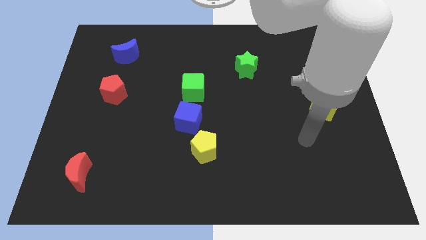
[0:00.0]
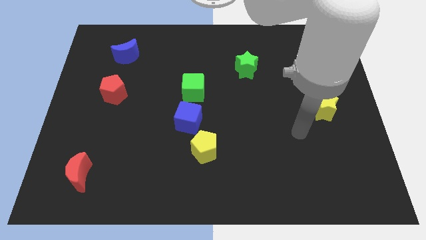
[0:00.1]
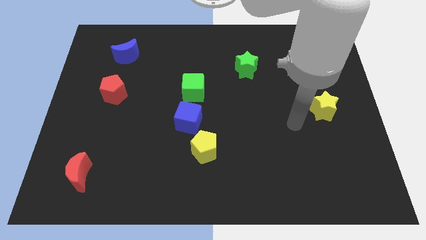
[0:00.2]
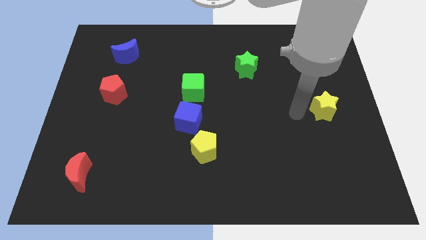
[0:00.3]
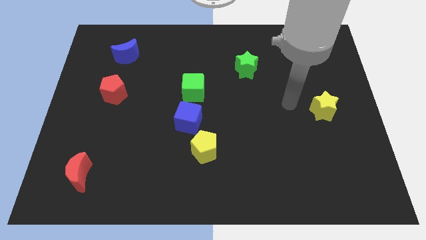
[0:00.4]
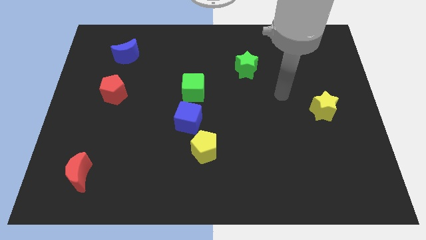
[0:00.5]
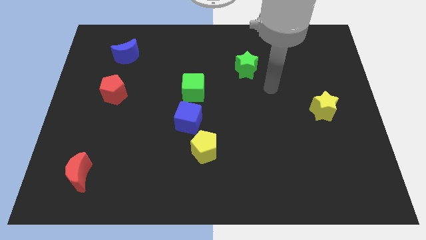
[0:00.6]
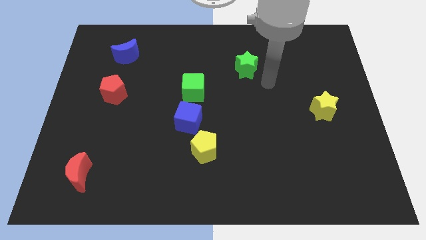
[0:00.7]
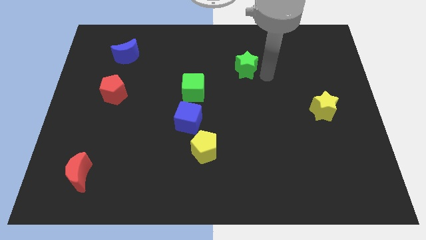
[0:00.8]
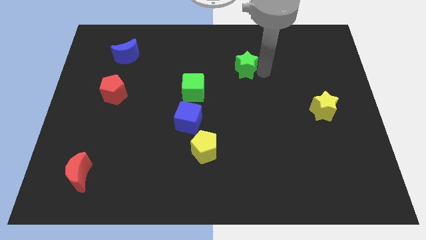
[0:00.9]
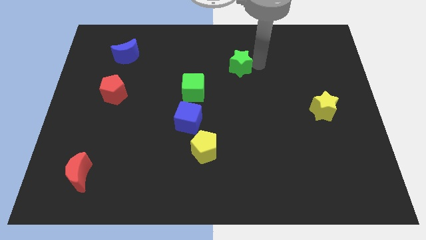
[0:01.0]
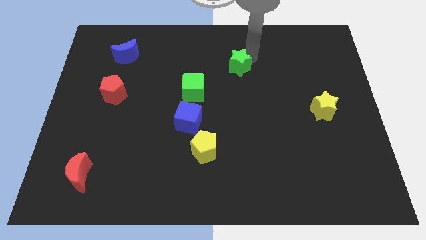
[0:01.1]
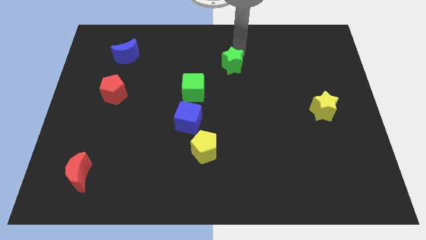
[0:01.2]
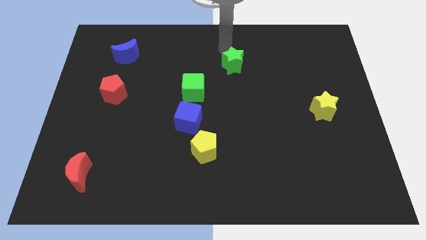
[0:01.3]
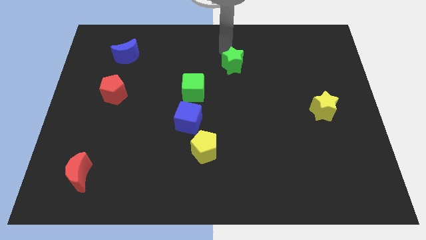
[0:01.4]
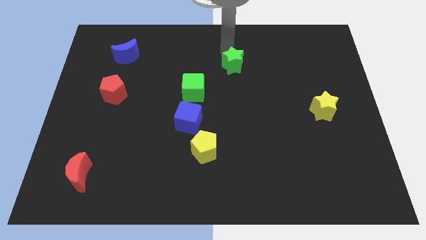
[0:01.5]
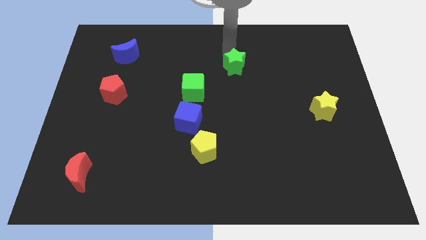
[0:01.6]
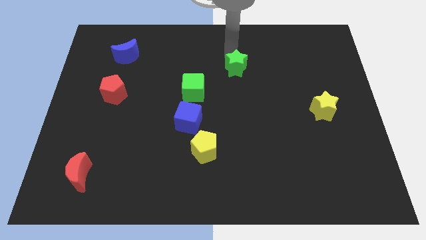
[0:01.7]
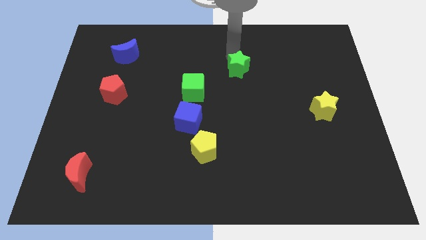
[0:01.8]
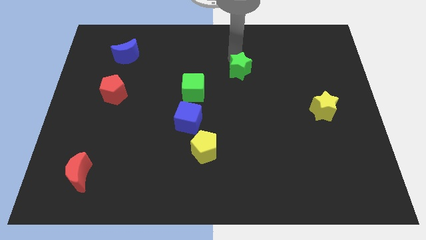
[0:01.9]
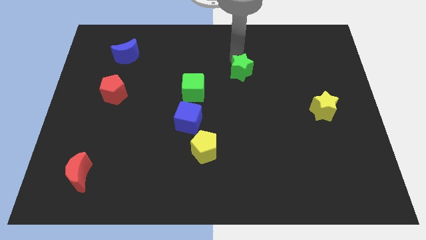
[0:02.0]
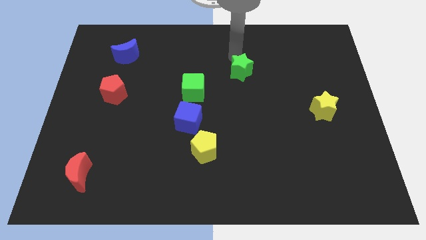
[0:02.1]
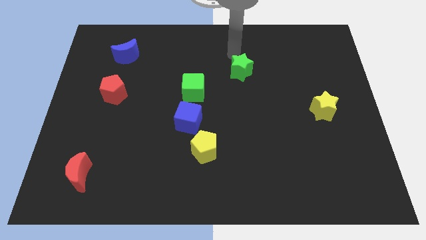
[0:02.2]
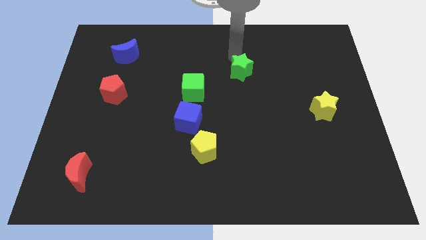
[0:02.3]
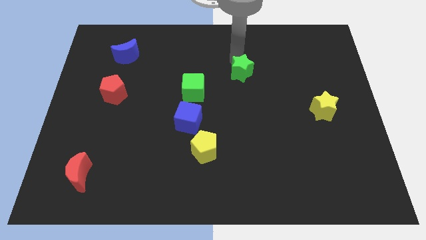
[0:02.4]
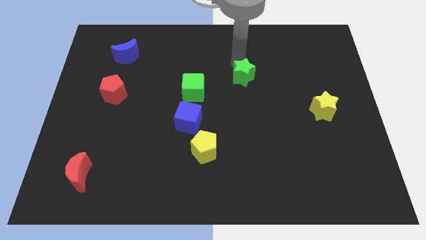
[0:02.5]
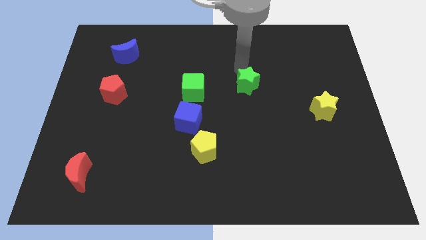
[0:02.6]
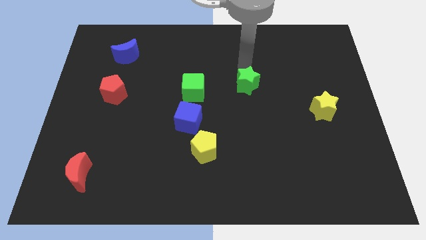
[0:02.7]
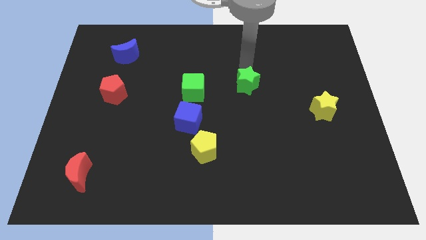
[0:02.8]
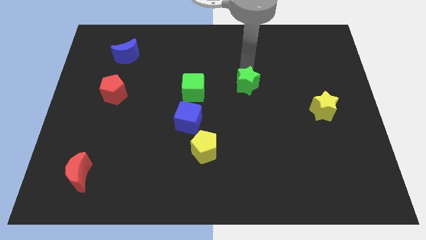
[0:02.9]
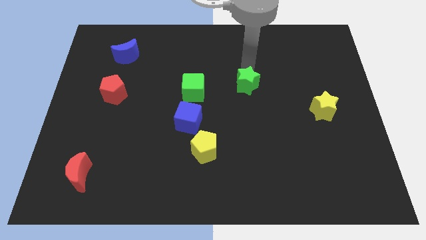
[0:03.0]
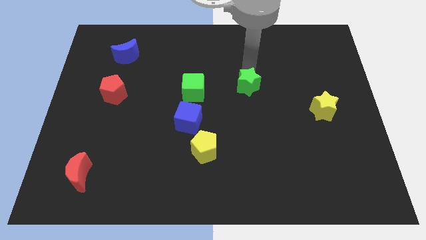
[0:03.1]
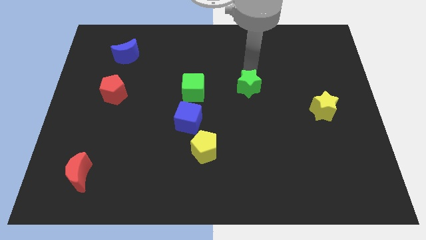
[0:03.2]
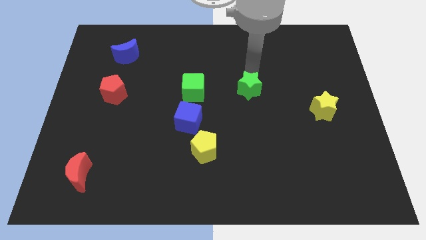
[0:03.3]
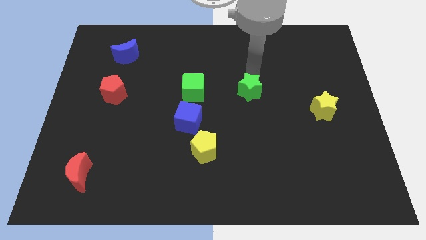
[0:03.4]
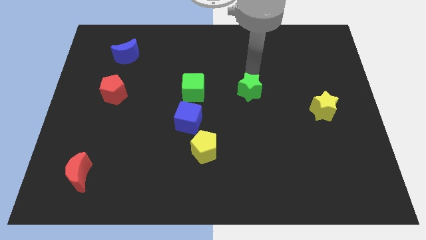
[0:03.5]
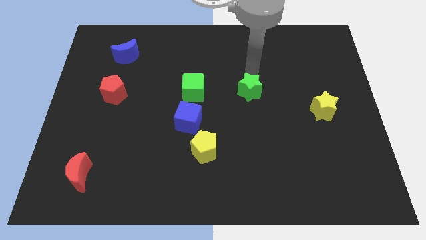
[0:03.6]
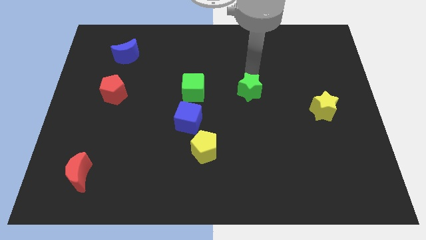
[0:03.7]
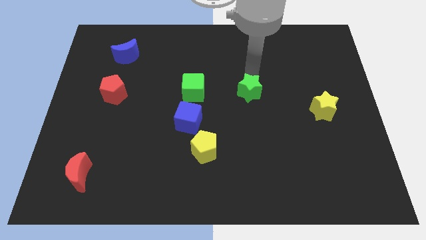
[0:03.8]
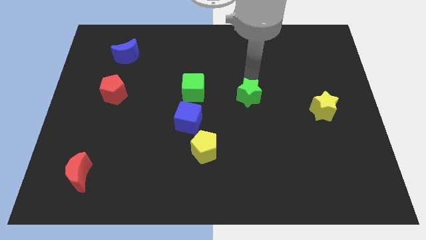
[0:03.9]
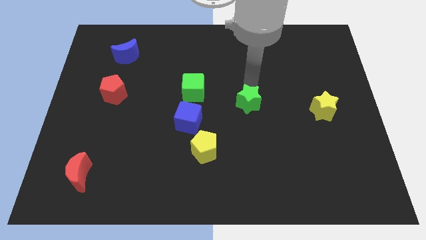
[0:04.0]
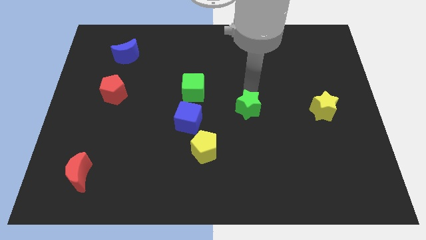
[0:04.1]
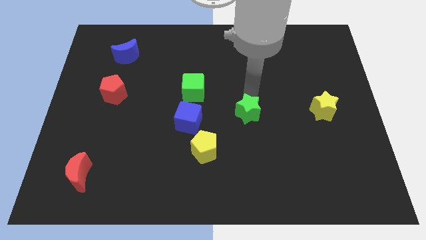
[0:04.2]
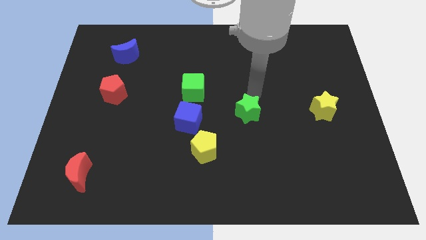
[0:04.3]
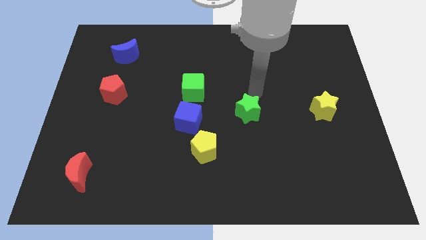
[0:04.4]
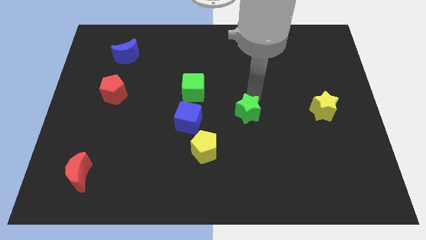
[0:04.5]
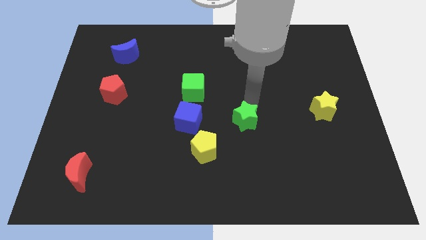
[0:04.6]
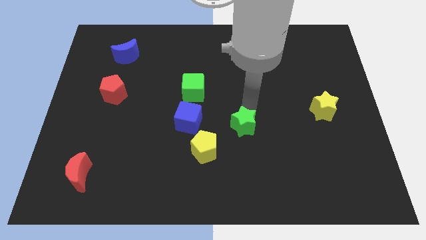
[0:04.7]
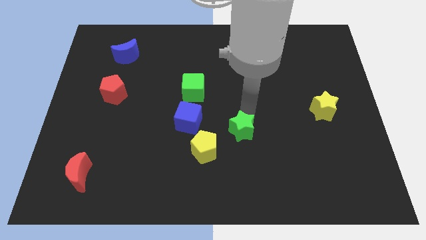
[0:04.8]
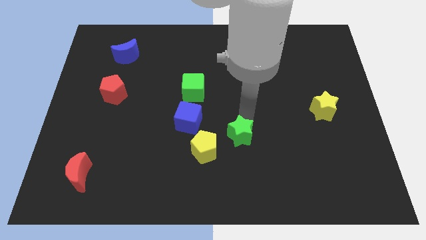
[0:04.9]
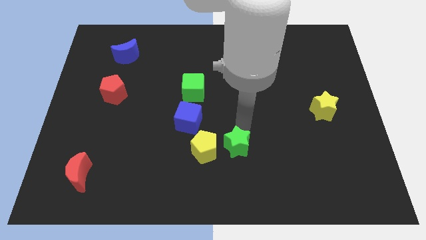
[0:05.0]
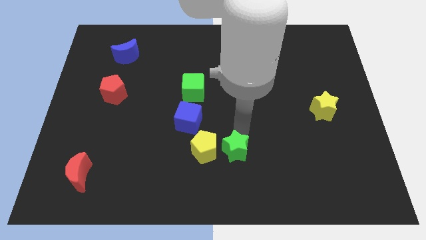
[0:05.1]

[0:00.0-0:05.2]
move the green star to the bottom right of the yellow pentagon

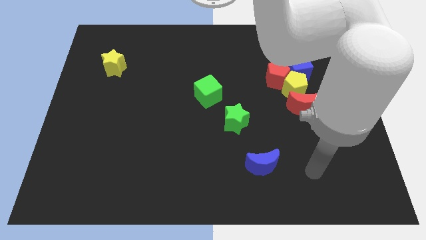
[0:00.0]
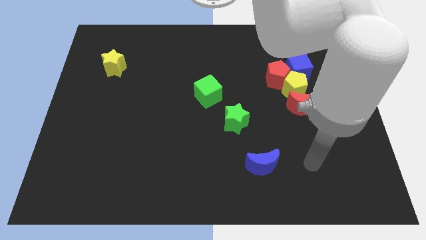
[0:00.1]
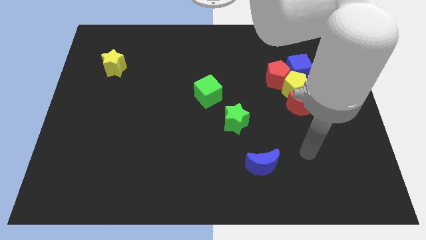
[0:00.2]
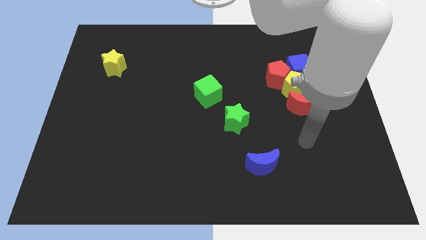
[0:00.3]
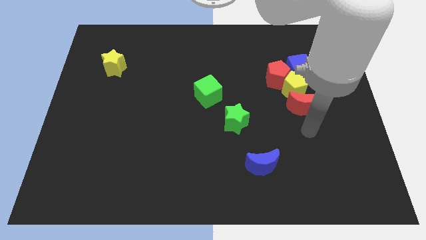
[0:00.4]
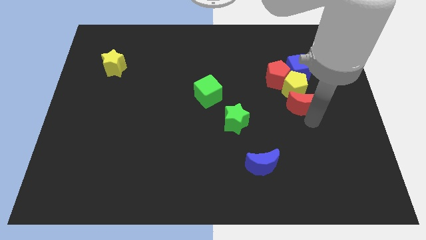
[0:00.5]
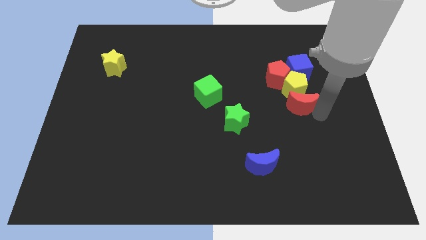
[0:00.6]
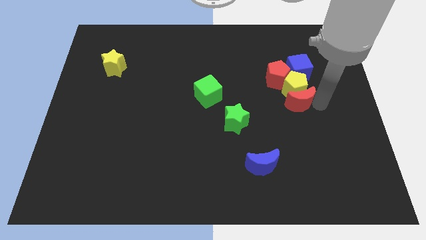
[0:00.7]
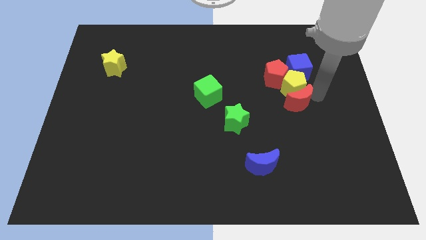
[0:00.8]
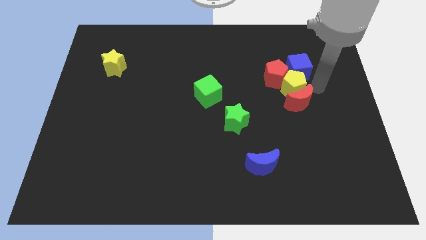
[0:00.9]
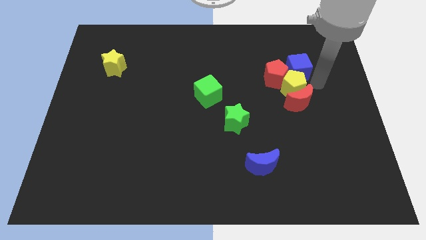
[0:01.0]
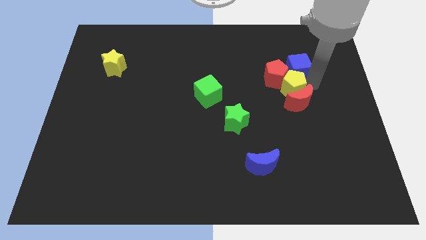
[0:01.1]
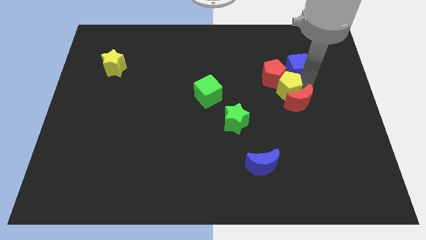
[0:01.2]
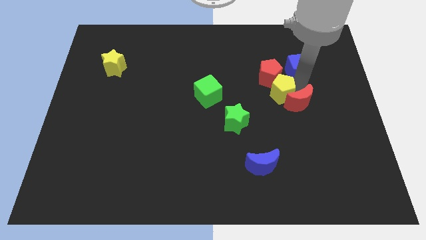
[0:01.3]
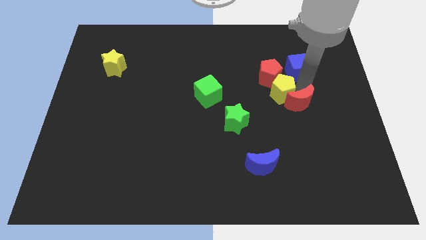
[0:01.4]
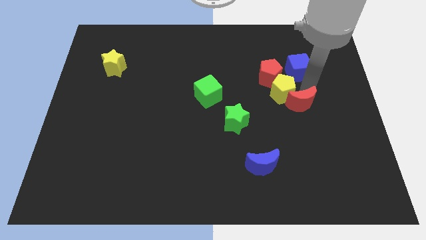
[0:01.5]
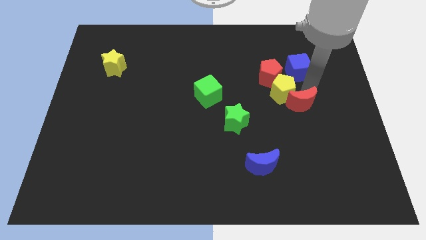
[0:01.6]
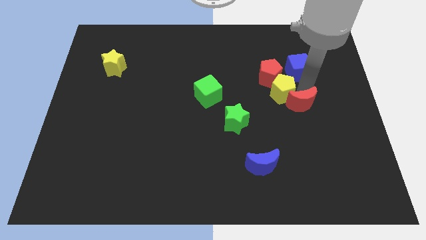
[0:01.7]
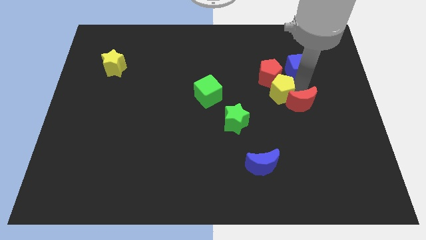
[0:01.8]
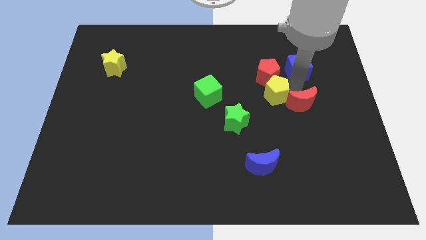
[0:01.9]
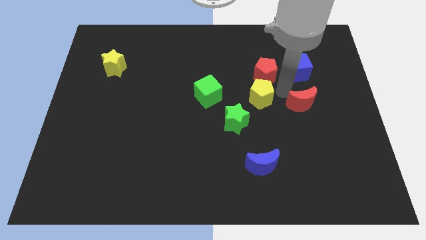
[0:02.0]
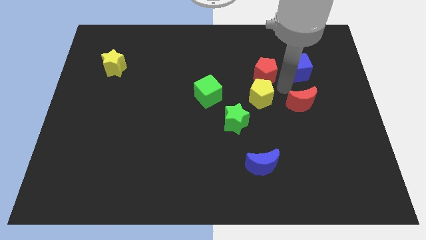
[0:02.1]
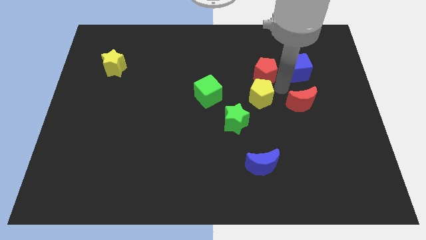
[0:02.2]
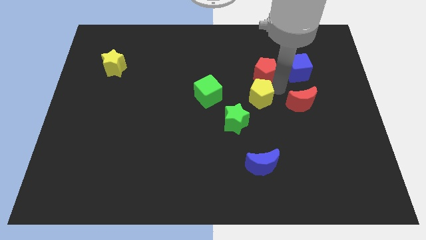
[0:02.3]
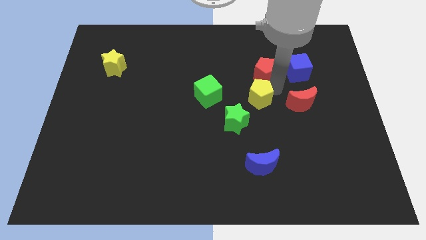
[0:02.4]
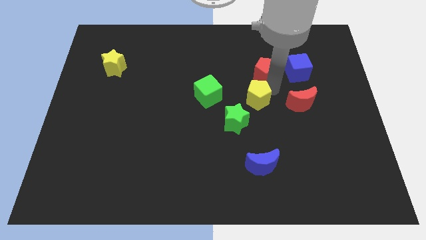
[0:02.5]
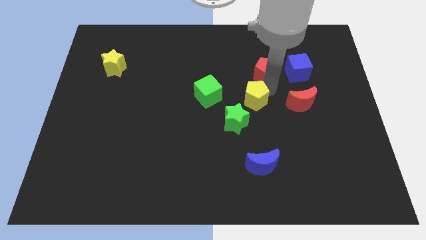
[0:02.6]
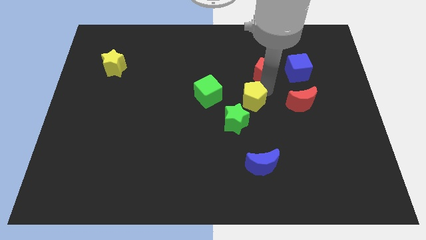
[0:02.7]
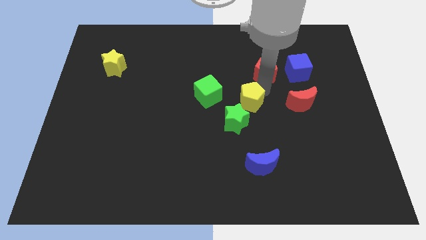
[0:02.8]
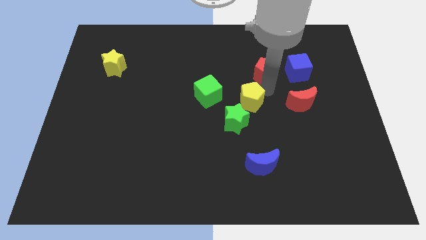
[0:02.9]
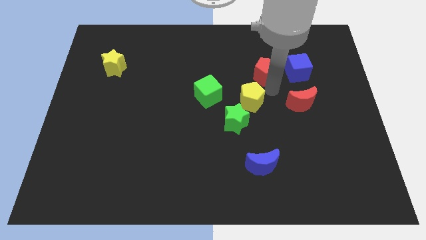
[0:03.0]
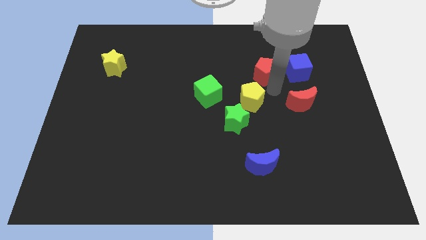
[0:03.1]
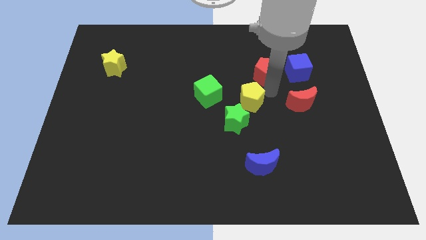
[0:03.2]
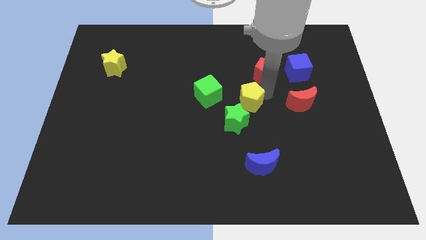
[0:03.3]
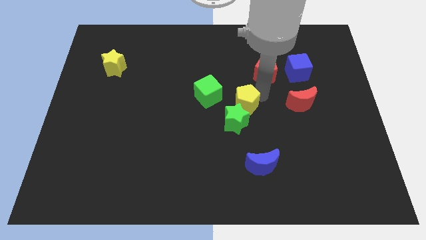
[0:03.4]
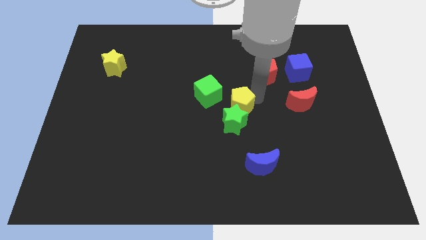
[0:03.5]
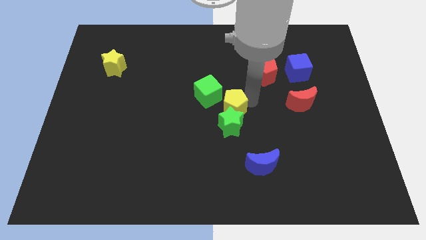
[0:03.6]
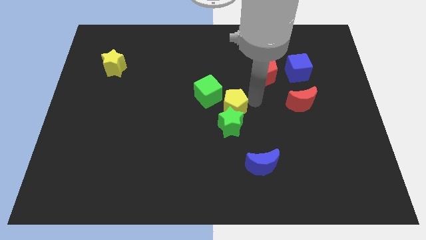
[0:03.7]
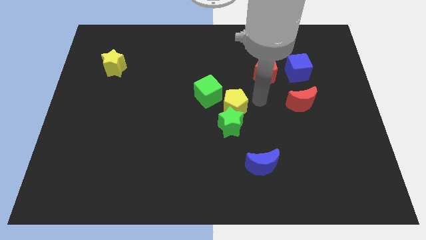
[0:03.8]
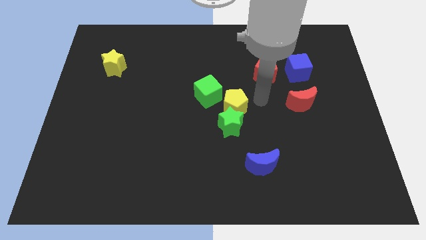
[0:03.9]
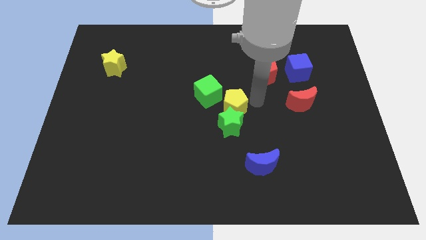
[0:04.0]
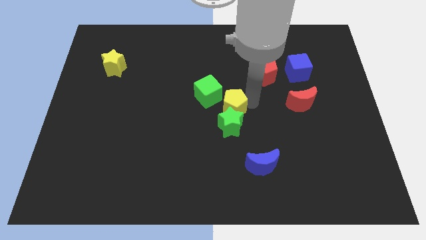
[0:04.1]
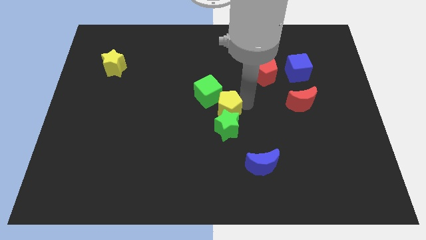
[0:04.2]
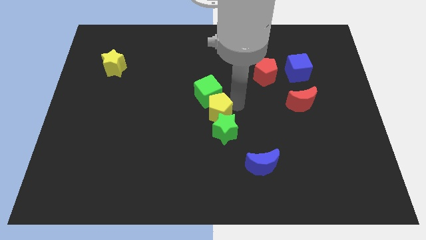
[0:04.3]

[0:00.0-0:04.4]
move the yellow pentagon below the green cube
